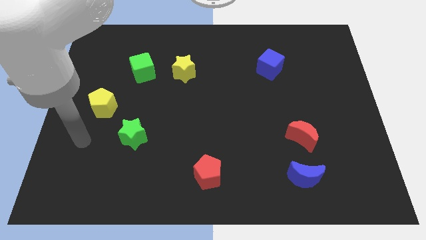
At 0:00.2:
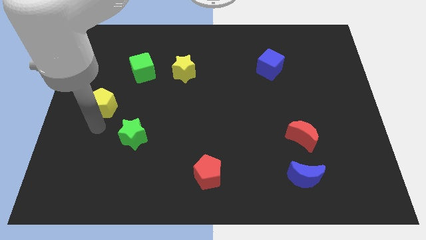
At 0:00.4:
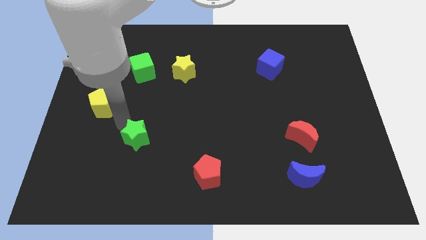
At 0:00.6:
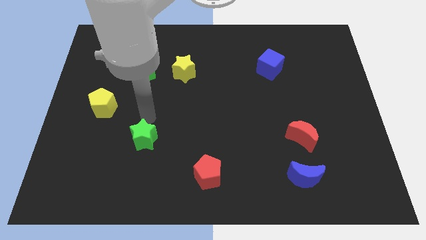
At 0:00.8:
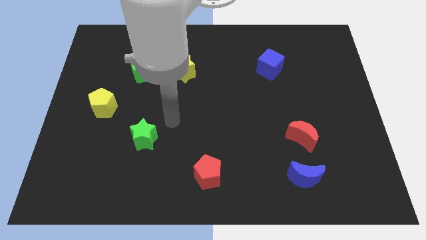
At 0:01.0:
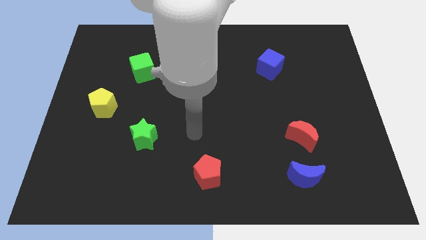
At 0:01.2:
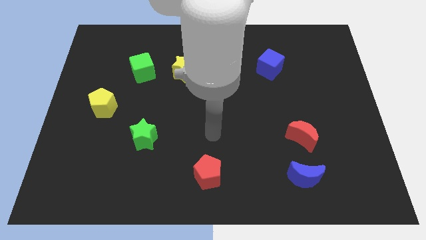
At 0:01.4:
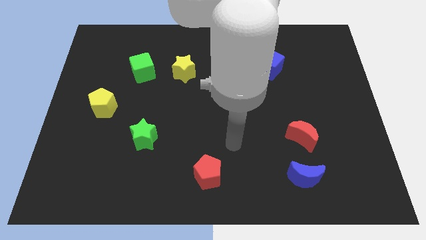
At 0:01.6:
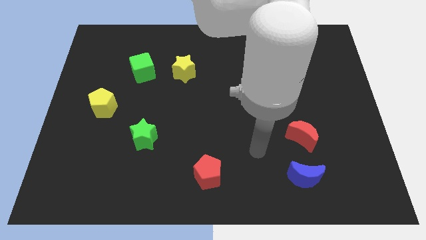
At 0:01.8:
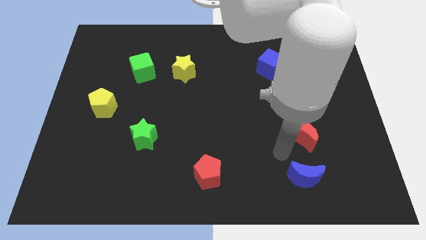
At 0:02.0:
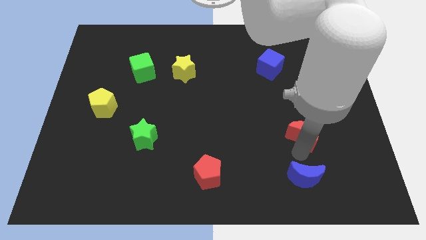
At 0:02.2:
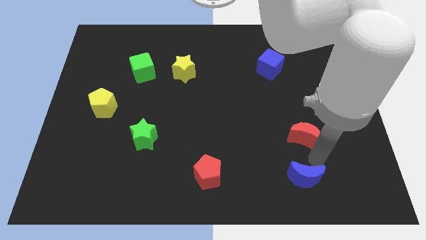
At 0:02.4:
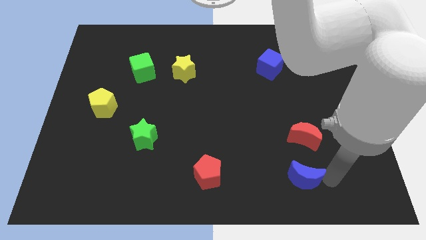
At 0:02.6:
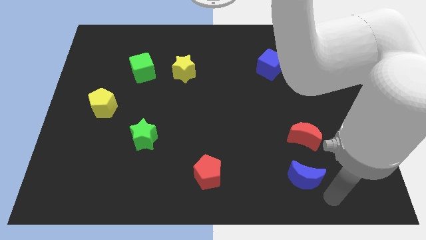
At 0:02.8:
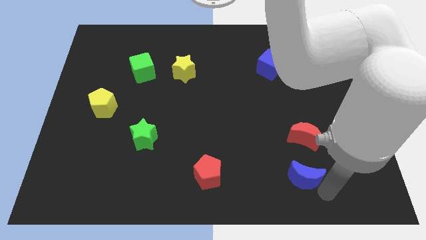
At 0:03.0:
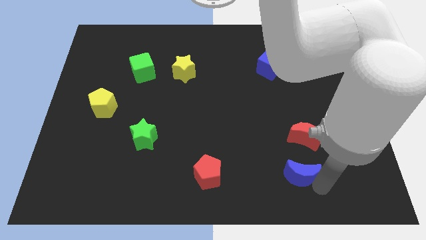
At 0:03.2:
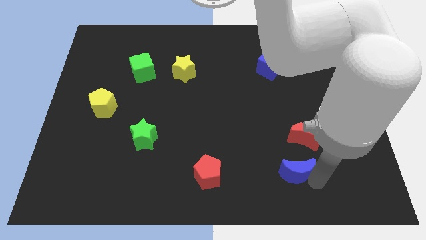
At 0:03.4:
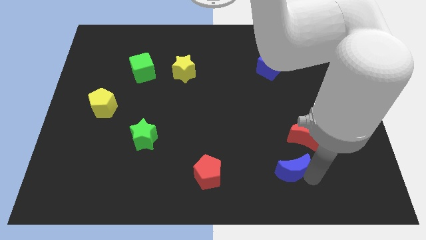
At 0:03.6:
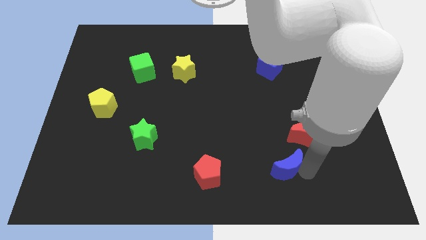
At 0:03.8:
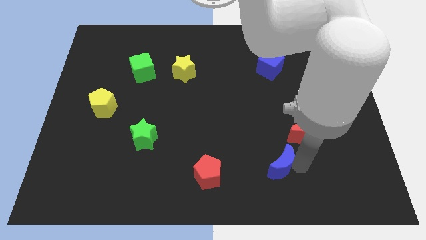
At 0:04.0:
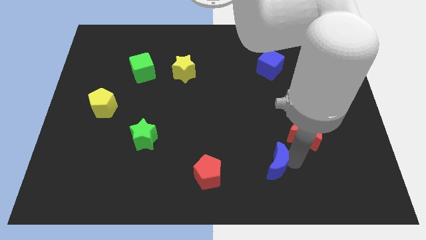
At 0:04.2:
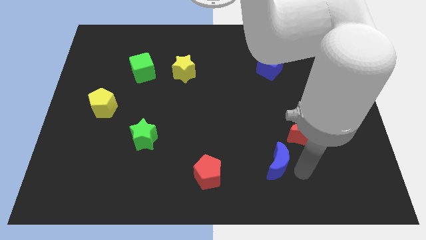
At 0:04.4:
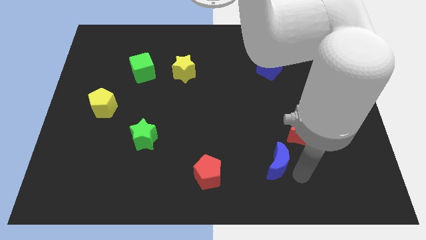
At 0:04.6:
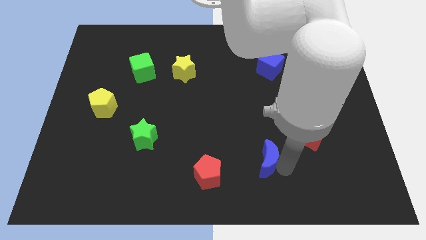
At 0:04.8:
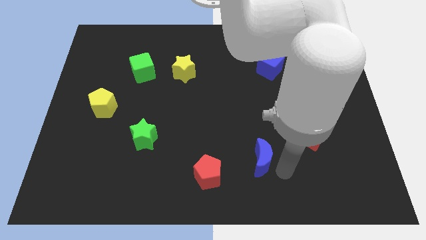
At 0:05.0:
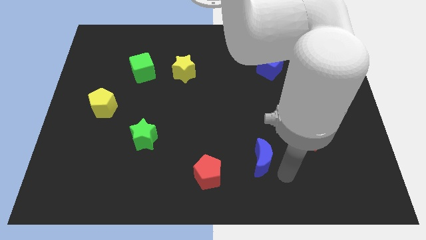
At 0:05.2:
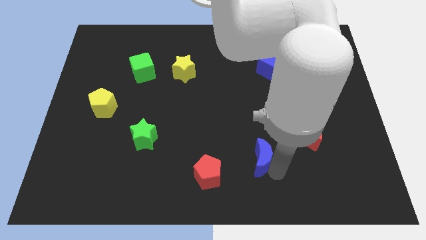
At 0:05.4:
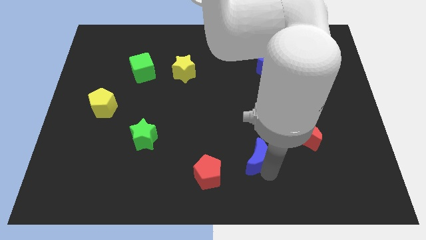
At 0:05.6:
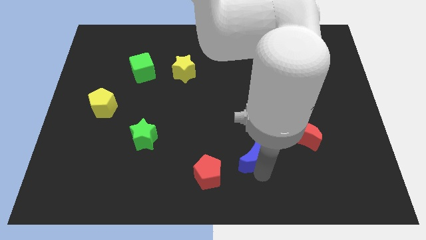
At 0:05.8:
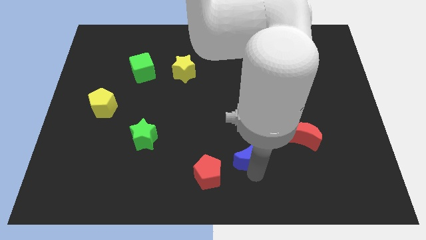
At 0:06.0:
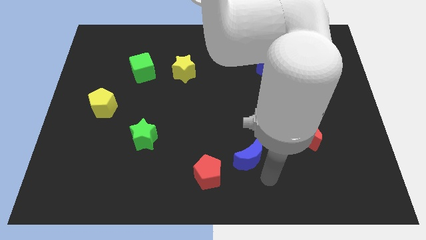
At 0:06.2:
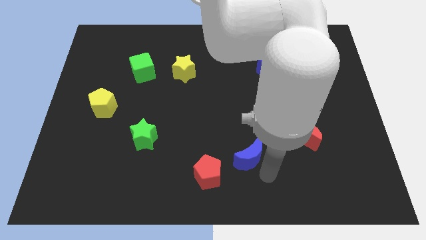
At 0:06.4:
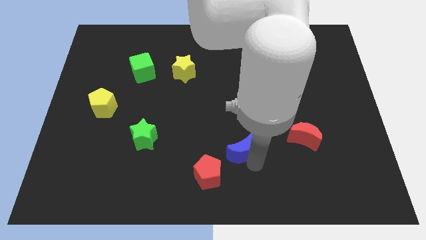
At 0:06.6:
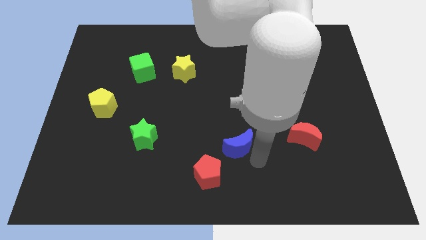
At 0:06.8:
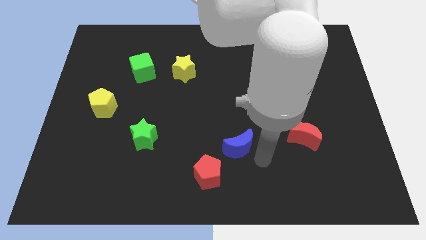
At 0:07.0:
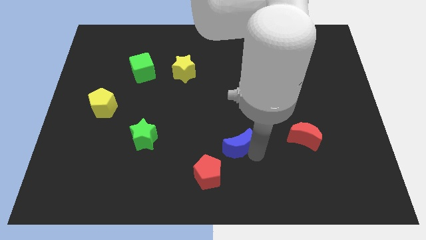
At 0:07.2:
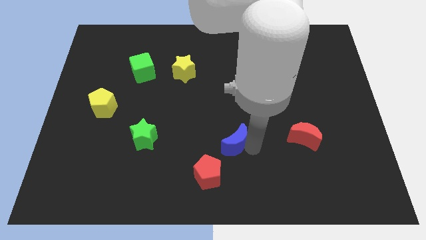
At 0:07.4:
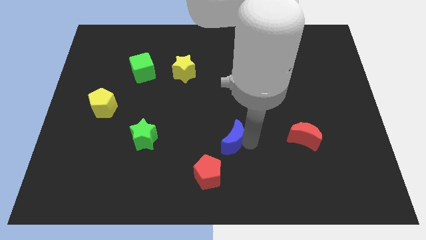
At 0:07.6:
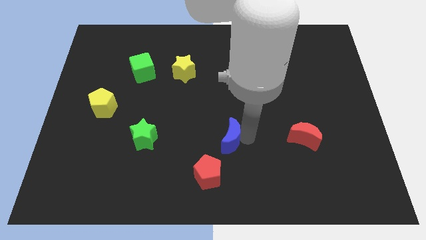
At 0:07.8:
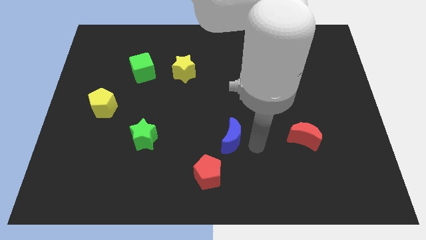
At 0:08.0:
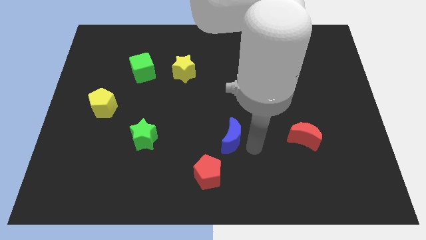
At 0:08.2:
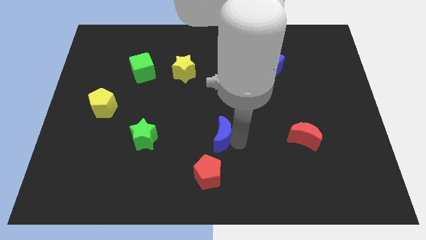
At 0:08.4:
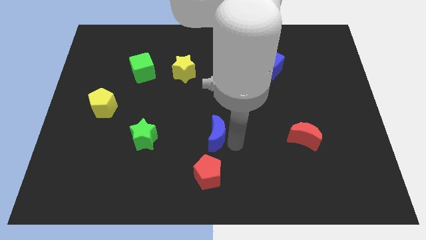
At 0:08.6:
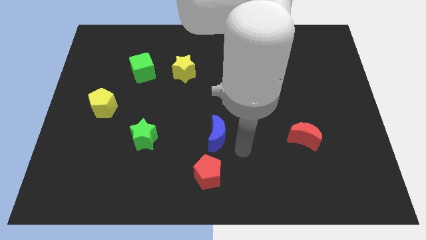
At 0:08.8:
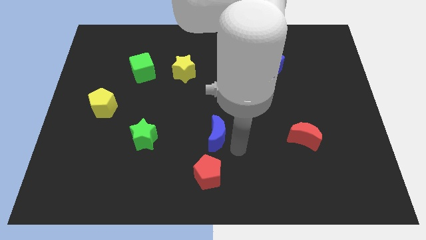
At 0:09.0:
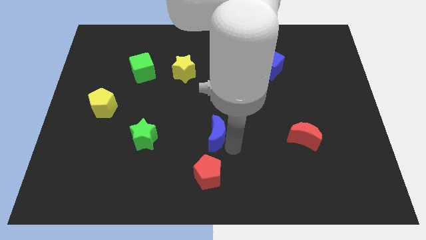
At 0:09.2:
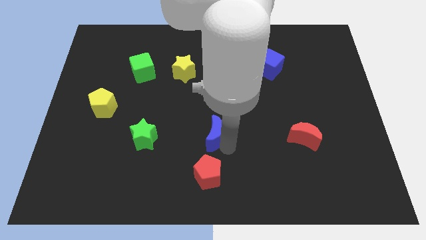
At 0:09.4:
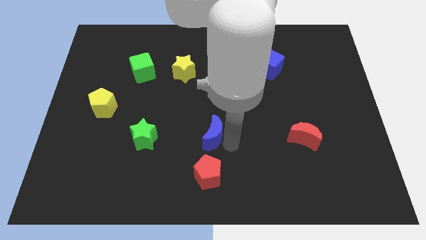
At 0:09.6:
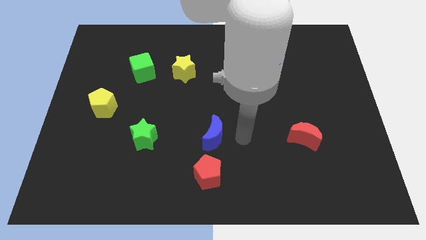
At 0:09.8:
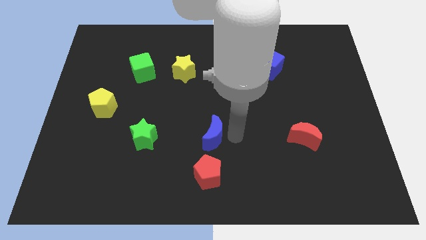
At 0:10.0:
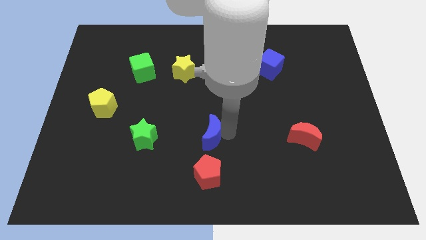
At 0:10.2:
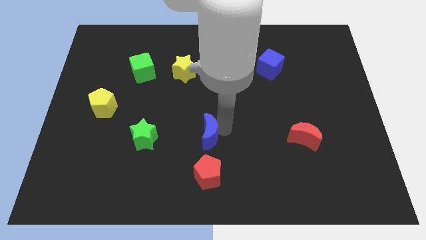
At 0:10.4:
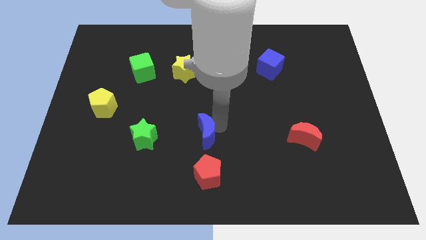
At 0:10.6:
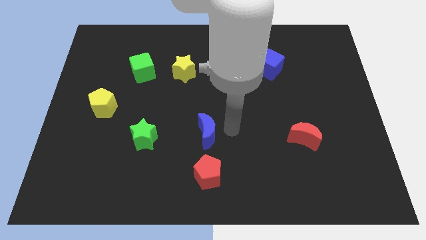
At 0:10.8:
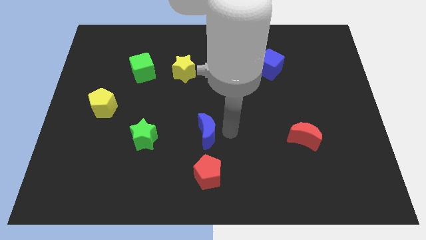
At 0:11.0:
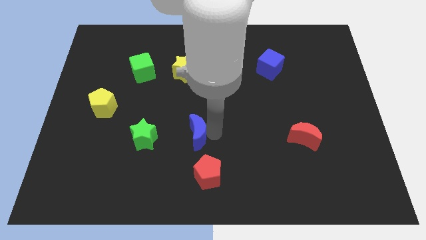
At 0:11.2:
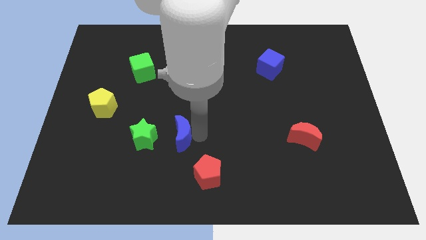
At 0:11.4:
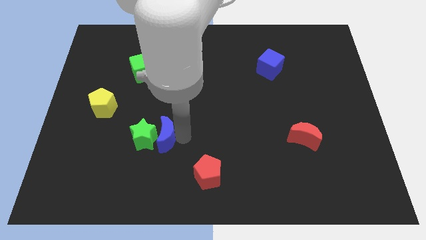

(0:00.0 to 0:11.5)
move the blue moon to the green star

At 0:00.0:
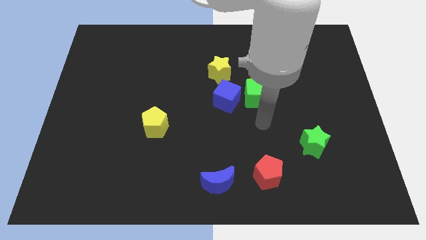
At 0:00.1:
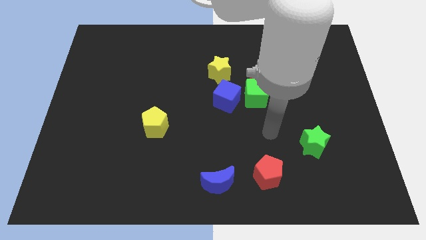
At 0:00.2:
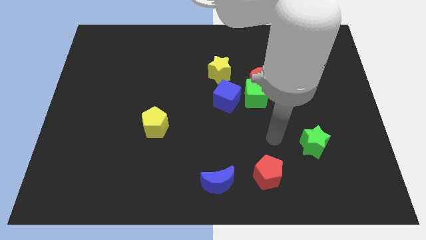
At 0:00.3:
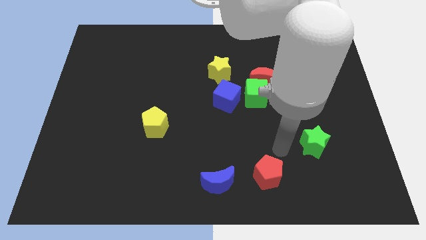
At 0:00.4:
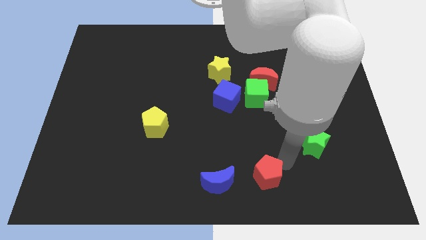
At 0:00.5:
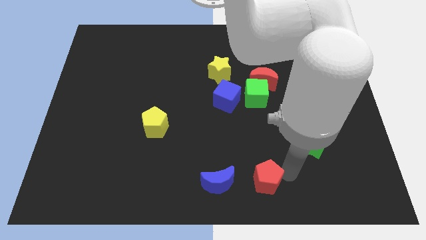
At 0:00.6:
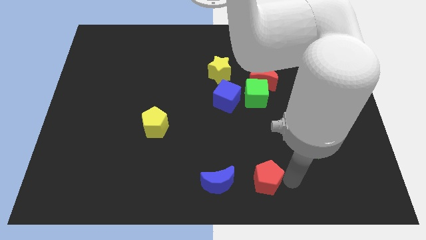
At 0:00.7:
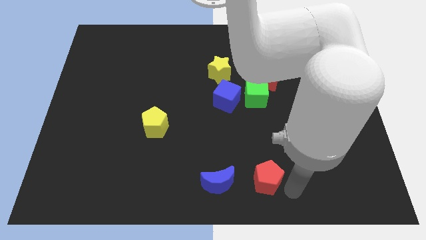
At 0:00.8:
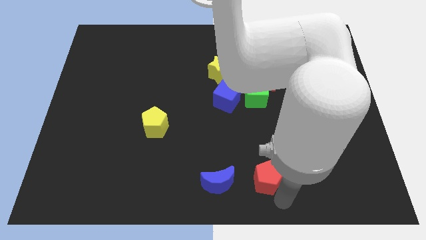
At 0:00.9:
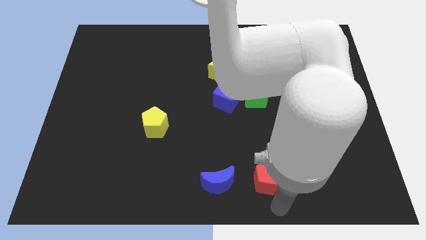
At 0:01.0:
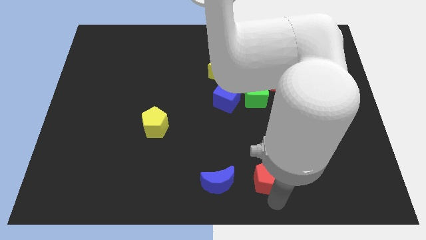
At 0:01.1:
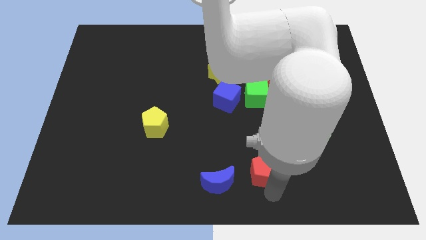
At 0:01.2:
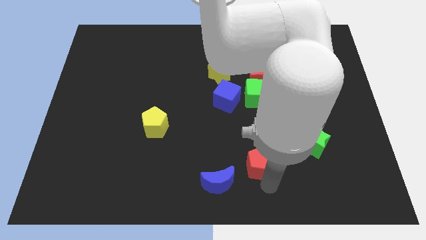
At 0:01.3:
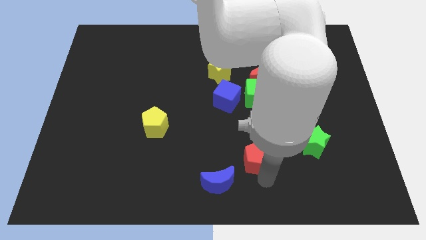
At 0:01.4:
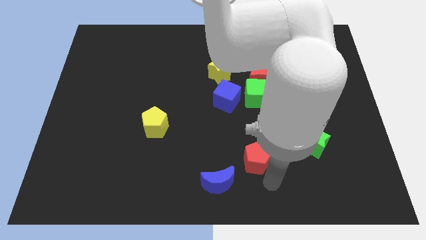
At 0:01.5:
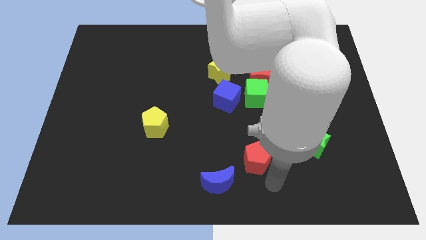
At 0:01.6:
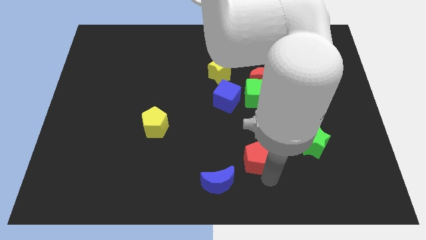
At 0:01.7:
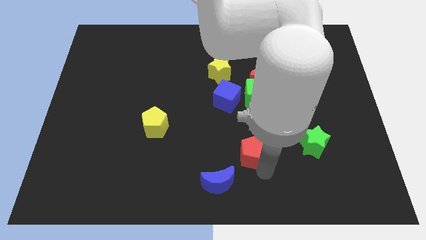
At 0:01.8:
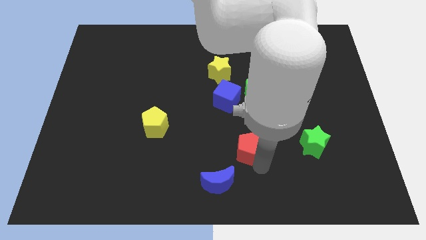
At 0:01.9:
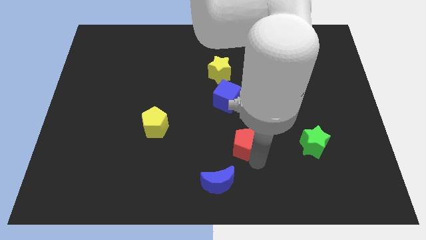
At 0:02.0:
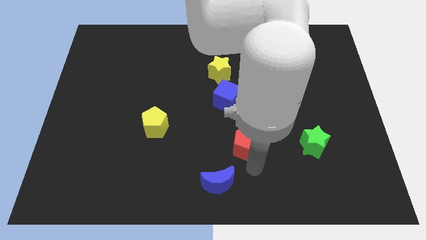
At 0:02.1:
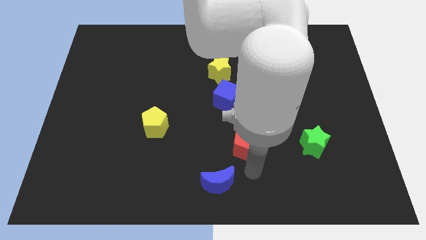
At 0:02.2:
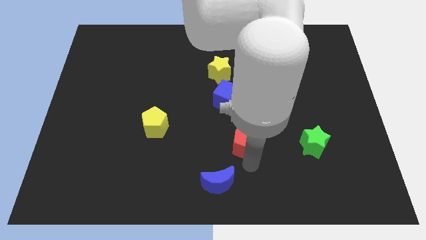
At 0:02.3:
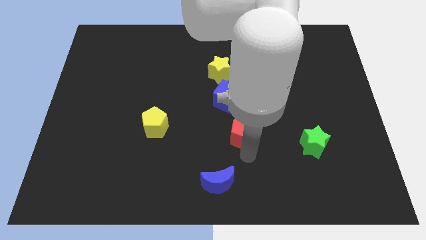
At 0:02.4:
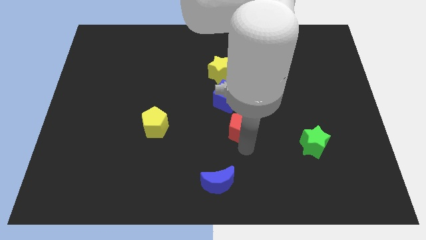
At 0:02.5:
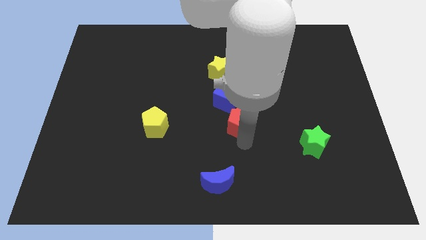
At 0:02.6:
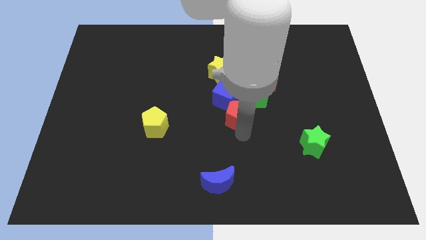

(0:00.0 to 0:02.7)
slide the red pentagon to the blue cube
